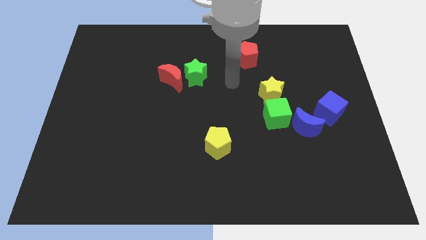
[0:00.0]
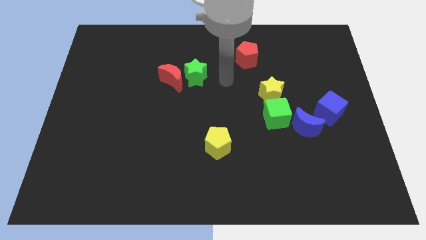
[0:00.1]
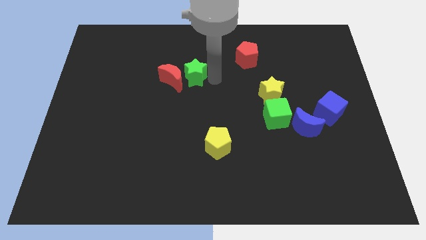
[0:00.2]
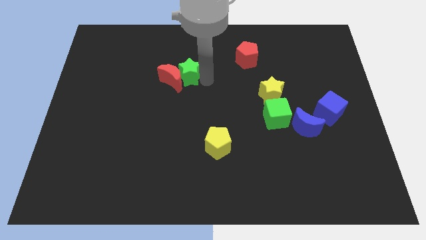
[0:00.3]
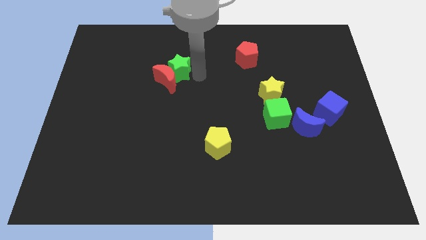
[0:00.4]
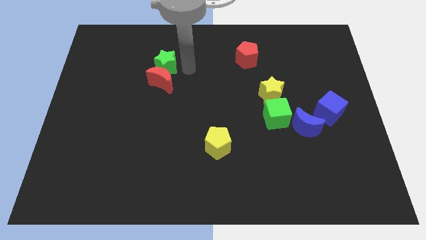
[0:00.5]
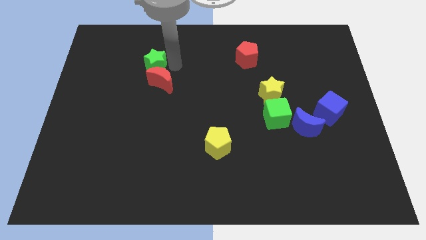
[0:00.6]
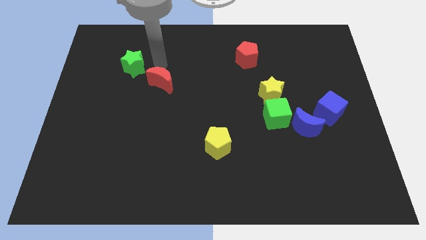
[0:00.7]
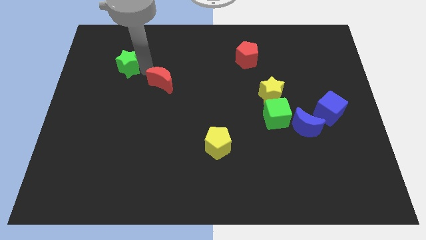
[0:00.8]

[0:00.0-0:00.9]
move the red moon away from the green star

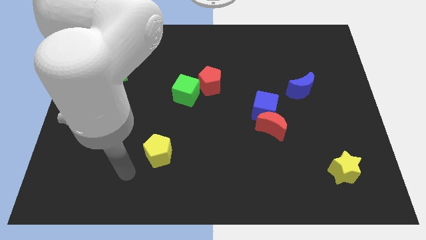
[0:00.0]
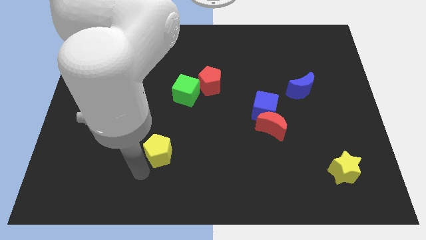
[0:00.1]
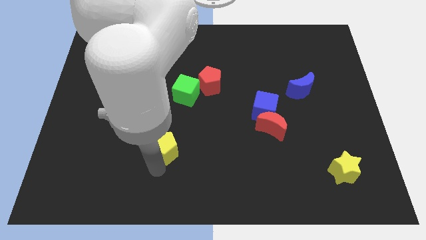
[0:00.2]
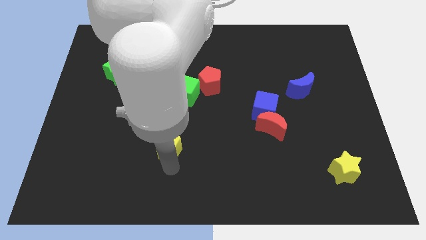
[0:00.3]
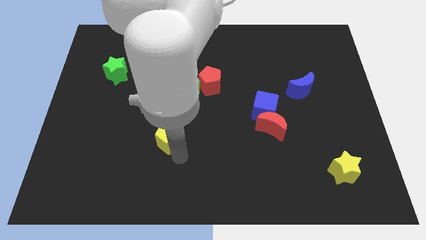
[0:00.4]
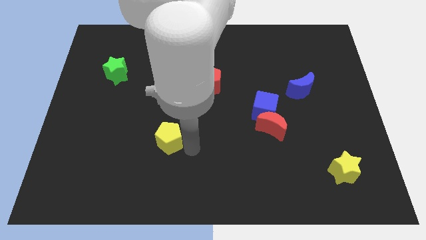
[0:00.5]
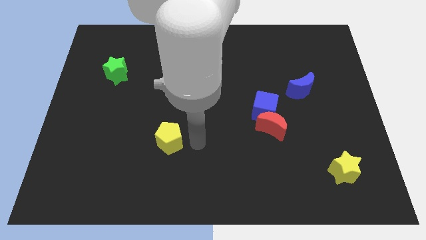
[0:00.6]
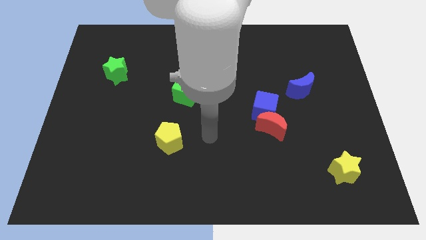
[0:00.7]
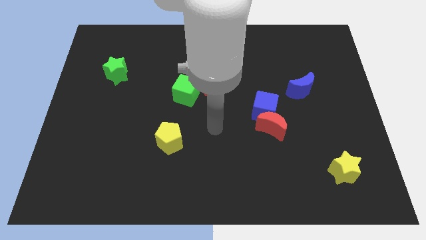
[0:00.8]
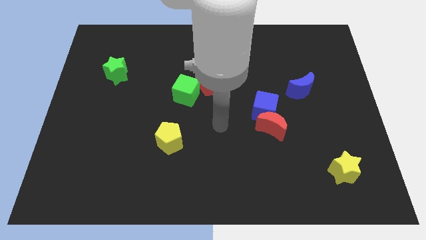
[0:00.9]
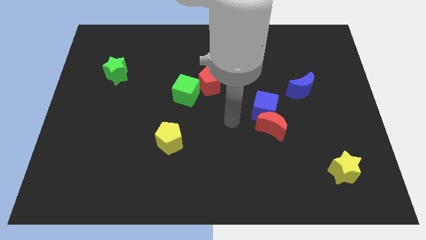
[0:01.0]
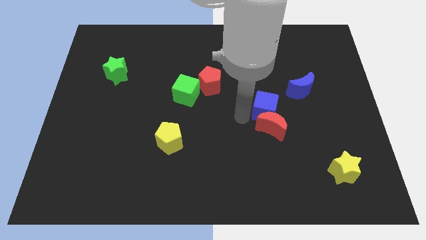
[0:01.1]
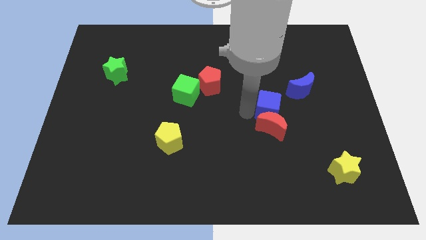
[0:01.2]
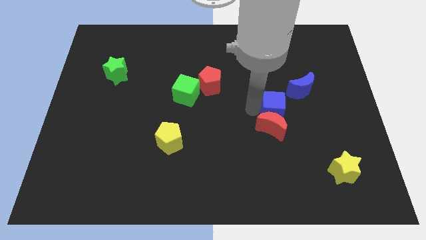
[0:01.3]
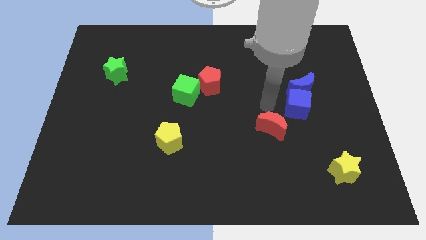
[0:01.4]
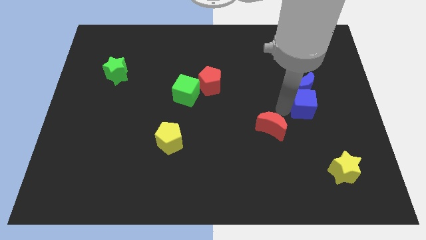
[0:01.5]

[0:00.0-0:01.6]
move the red moon away from the blue cube

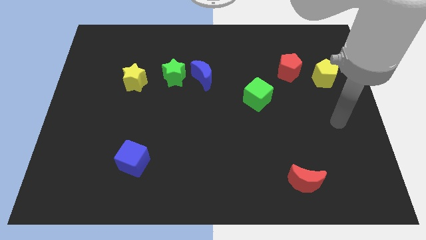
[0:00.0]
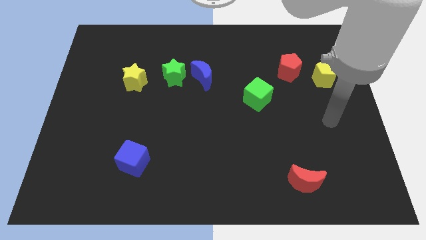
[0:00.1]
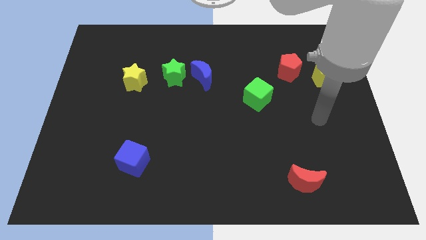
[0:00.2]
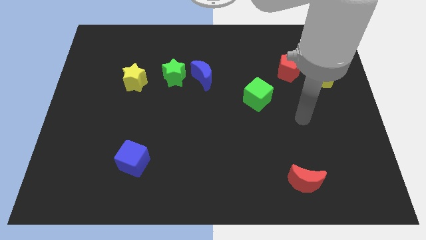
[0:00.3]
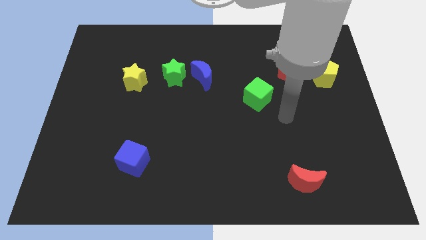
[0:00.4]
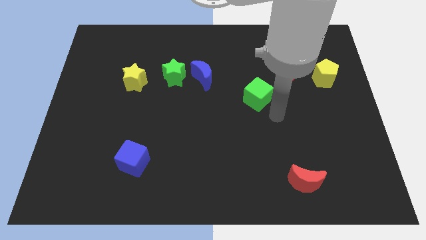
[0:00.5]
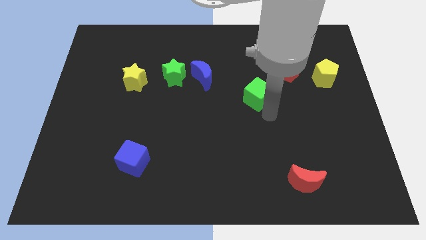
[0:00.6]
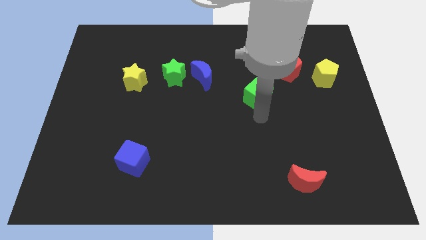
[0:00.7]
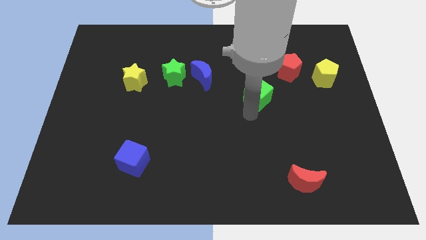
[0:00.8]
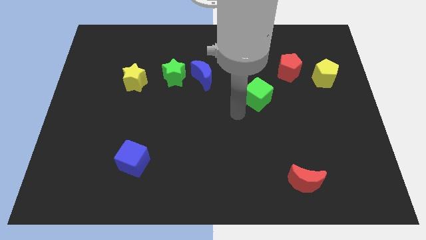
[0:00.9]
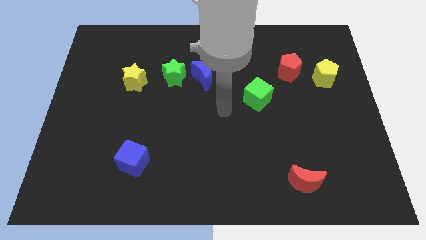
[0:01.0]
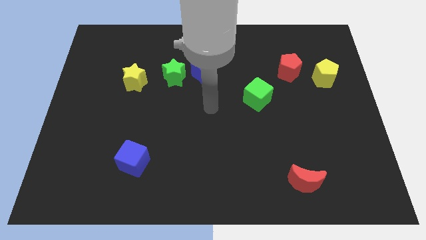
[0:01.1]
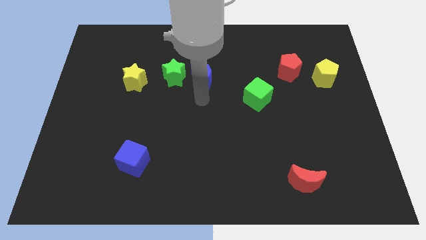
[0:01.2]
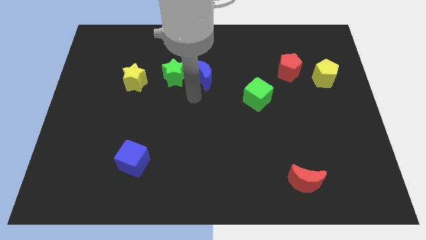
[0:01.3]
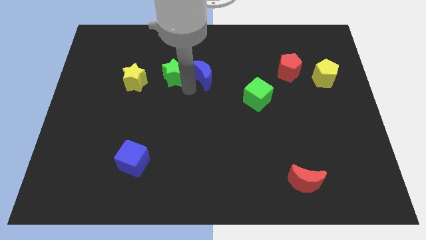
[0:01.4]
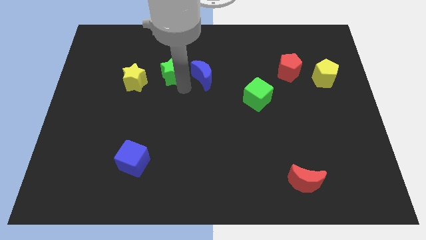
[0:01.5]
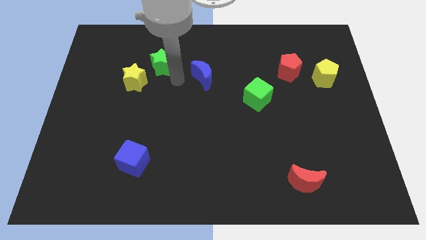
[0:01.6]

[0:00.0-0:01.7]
pull the blue moon apart from the green star

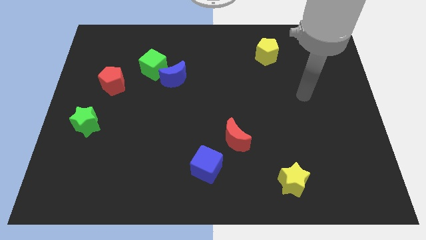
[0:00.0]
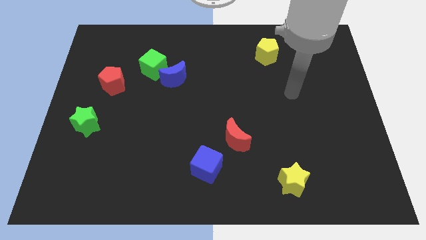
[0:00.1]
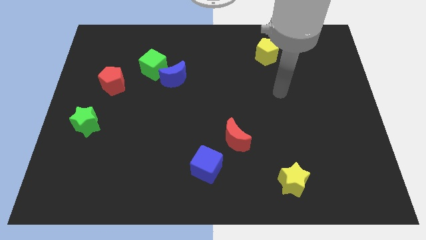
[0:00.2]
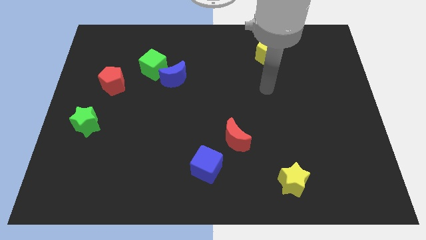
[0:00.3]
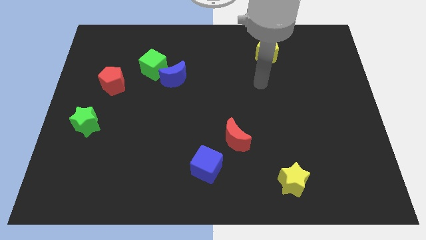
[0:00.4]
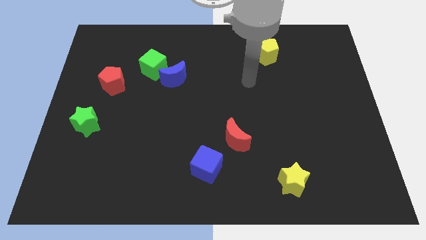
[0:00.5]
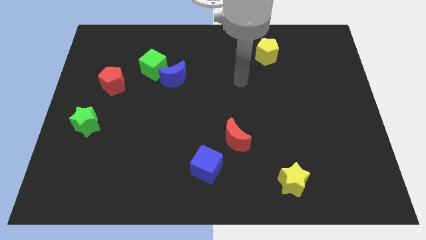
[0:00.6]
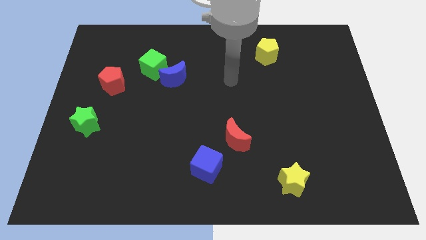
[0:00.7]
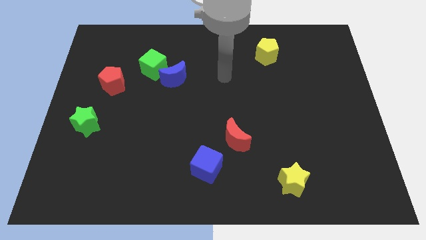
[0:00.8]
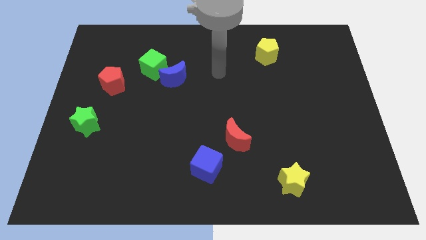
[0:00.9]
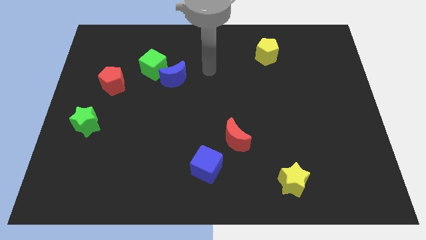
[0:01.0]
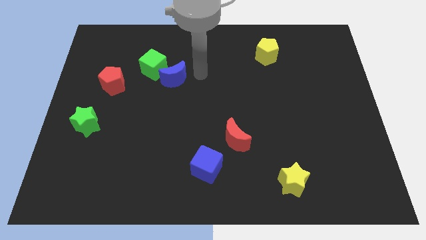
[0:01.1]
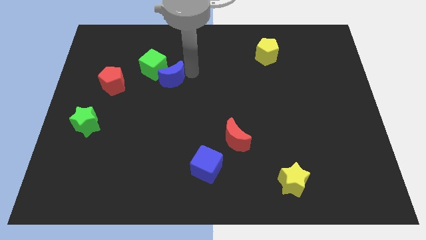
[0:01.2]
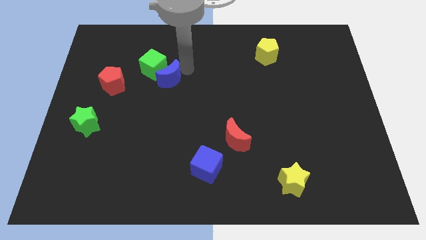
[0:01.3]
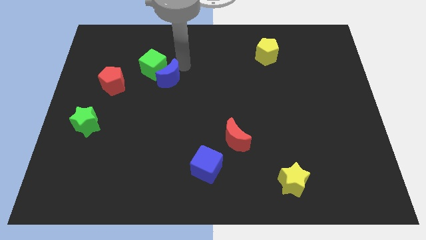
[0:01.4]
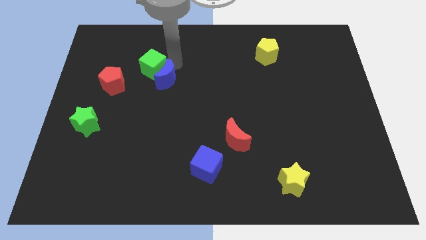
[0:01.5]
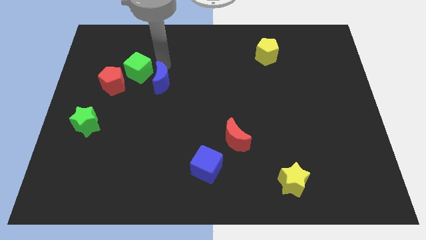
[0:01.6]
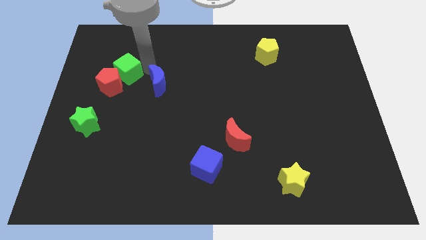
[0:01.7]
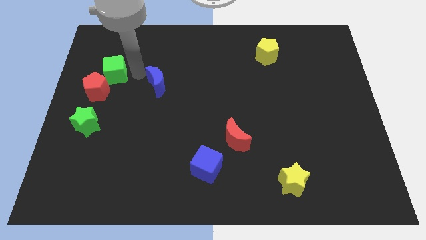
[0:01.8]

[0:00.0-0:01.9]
move the blue moon away from the green cube

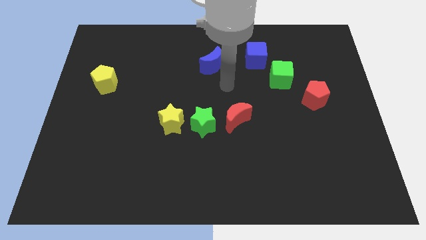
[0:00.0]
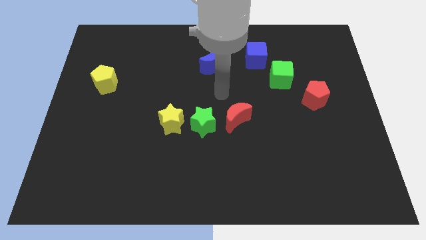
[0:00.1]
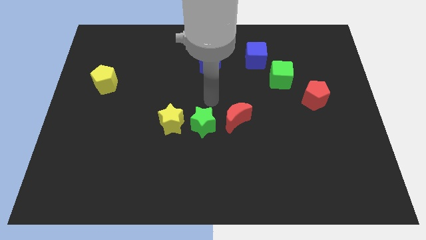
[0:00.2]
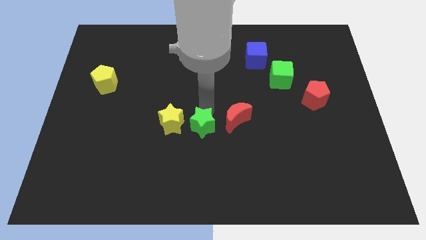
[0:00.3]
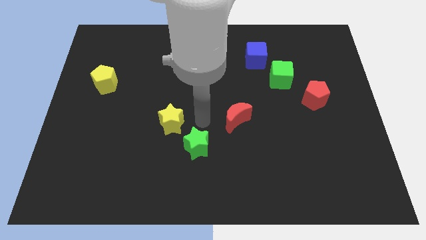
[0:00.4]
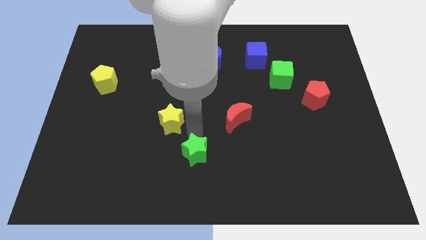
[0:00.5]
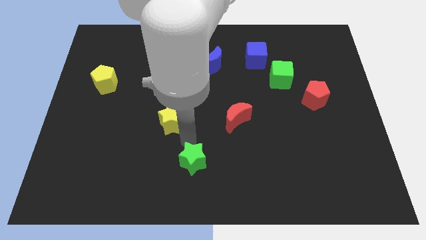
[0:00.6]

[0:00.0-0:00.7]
move the yellow star away from the green star

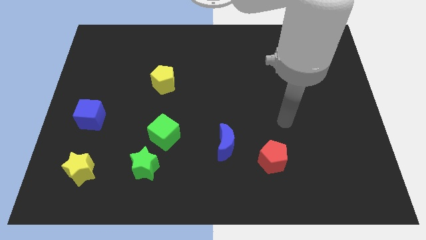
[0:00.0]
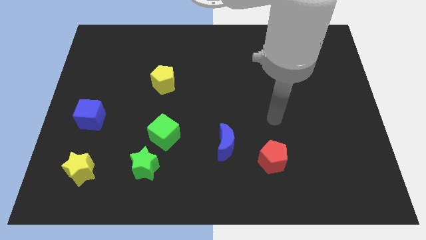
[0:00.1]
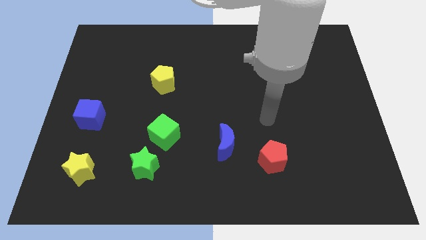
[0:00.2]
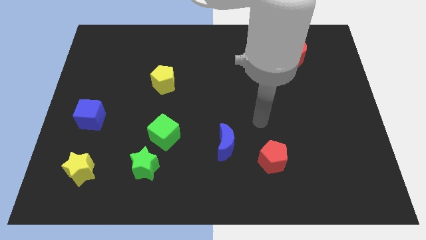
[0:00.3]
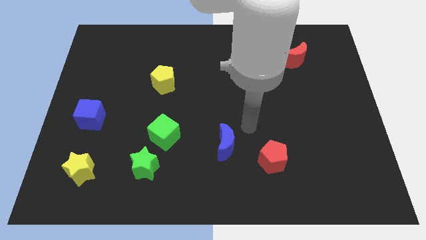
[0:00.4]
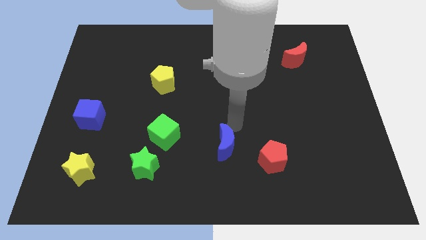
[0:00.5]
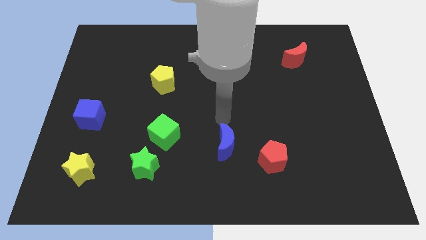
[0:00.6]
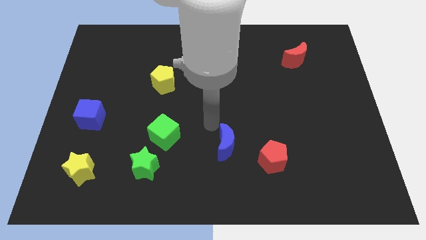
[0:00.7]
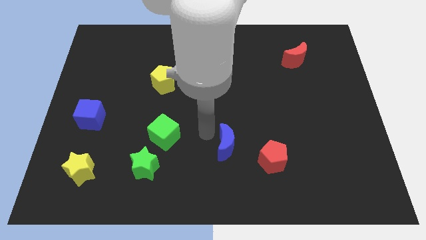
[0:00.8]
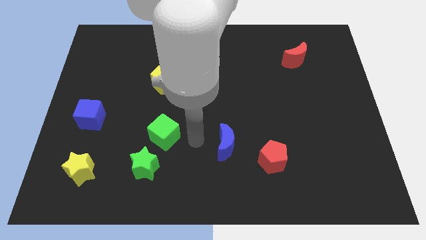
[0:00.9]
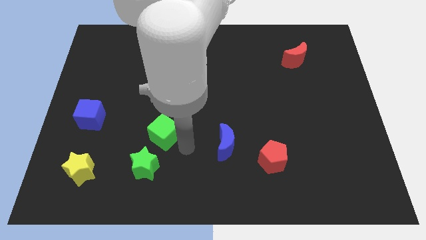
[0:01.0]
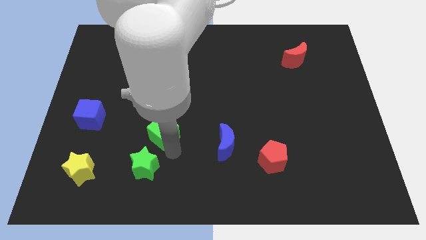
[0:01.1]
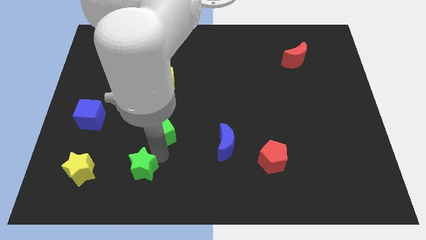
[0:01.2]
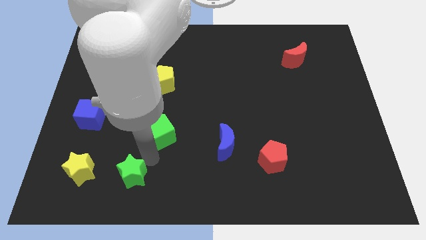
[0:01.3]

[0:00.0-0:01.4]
separate the green cube from the green star

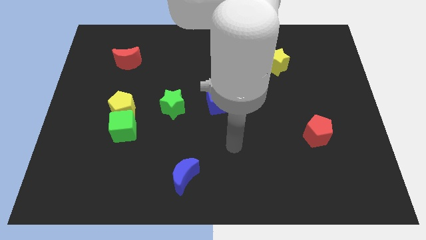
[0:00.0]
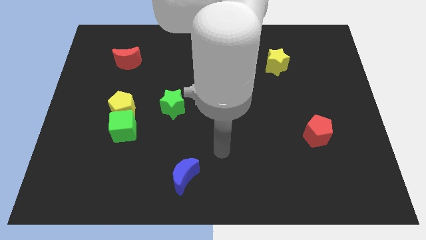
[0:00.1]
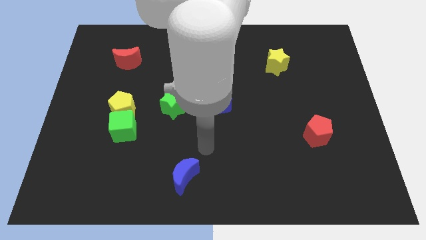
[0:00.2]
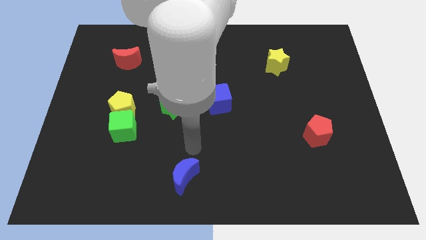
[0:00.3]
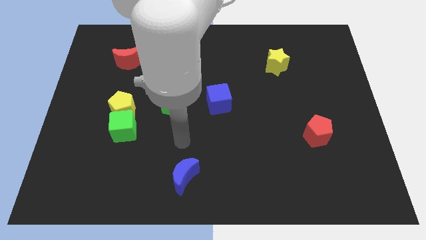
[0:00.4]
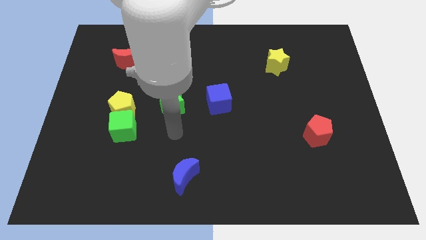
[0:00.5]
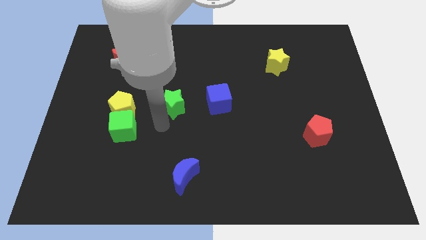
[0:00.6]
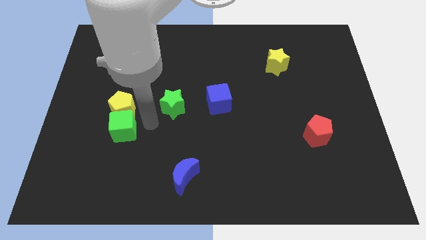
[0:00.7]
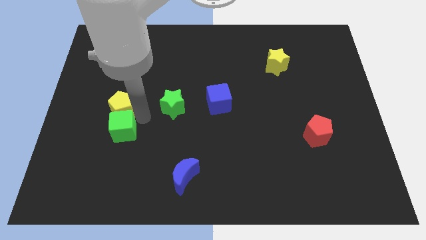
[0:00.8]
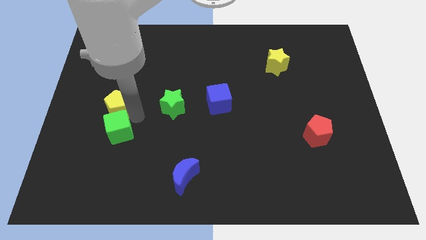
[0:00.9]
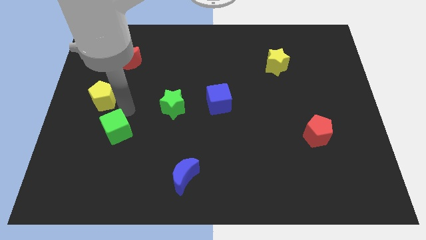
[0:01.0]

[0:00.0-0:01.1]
separate the green cube from the yellow pentagon
